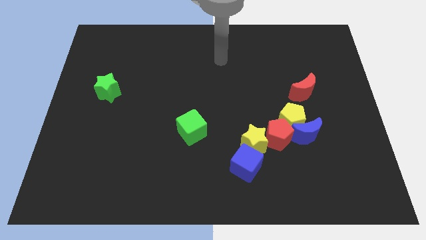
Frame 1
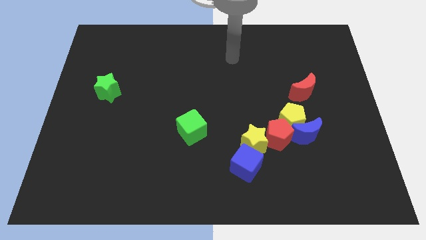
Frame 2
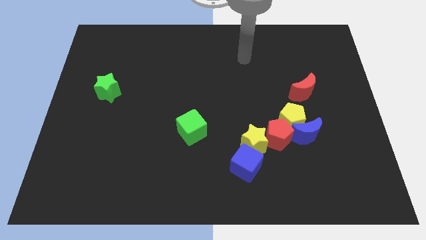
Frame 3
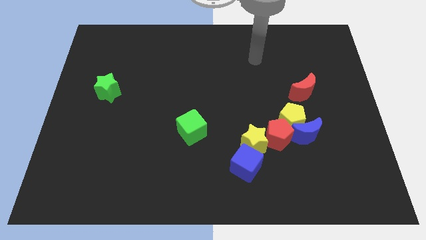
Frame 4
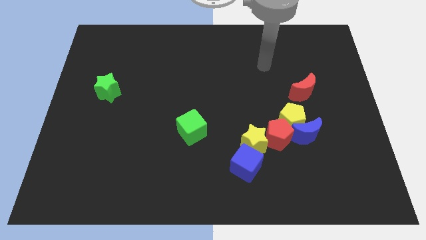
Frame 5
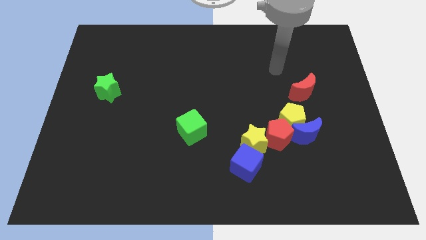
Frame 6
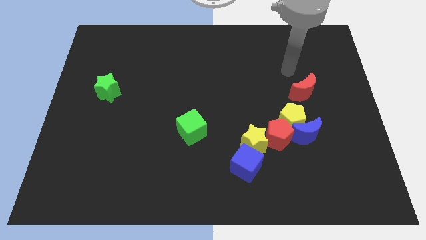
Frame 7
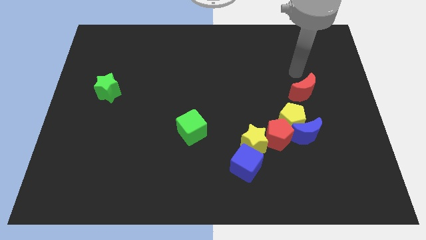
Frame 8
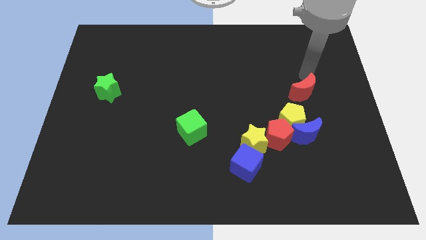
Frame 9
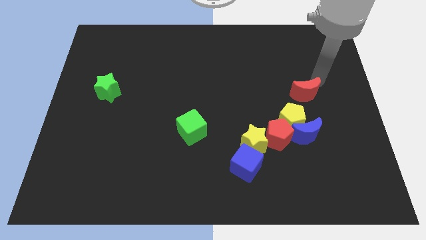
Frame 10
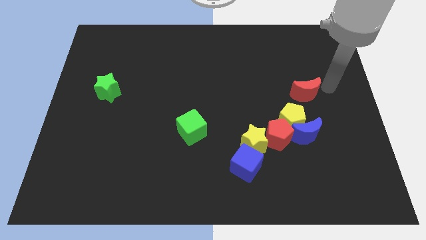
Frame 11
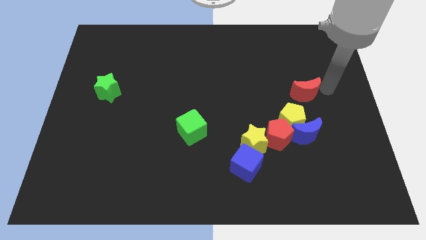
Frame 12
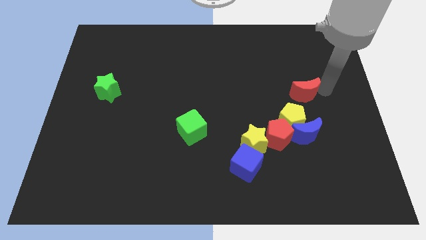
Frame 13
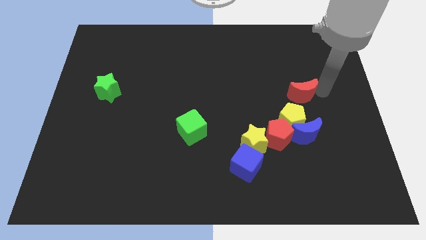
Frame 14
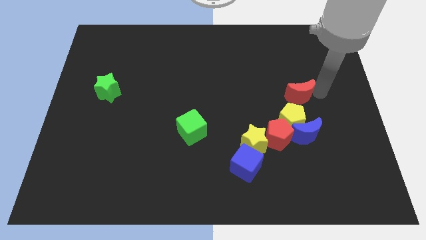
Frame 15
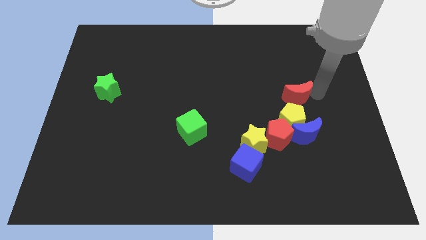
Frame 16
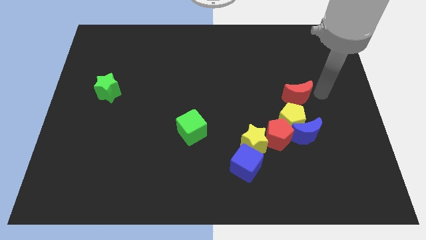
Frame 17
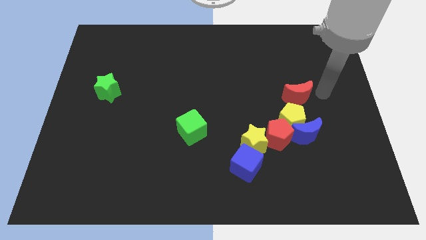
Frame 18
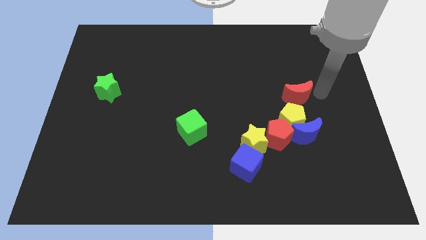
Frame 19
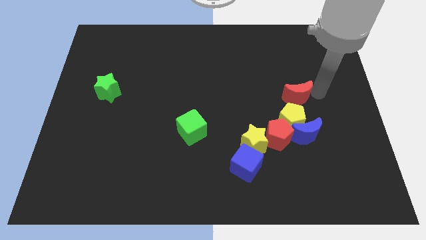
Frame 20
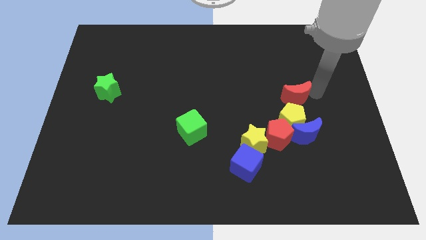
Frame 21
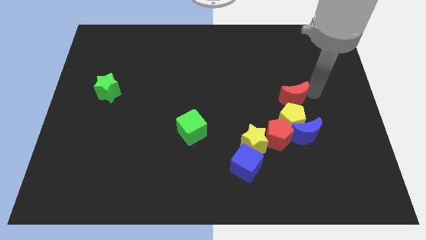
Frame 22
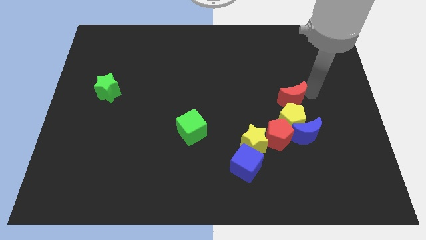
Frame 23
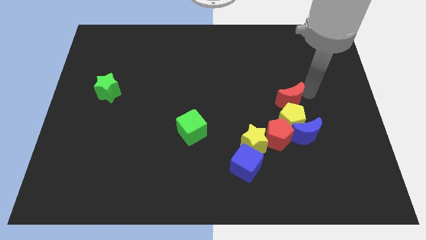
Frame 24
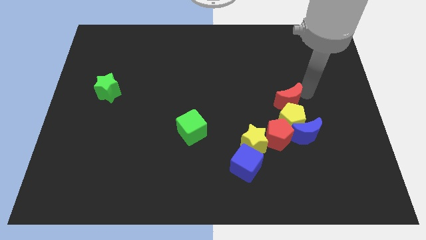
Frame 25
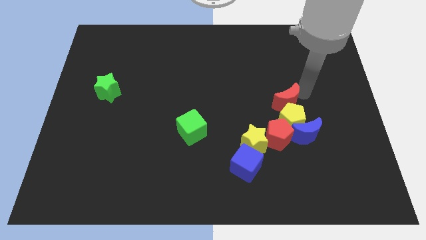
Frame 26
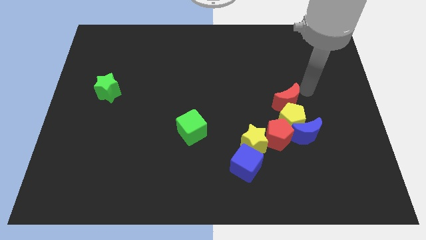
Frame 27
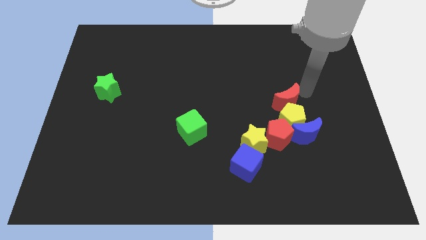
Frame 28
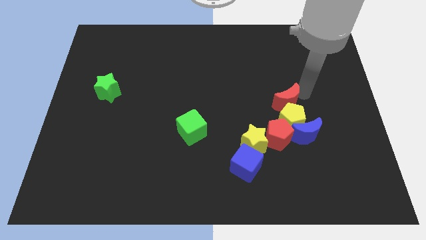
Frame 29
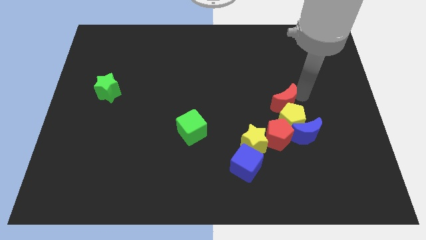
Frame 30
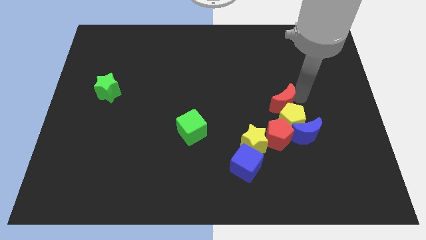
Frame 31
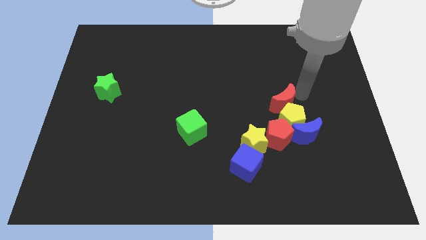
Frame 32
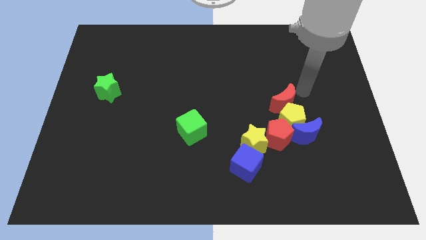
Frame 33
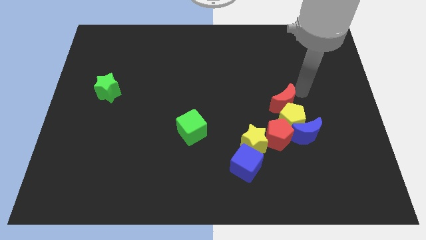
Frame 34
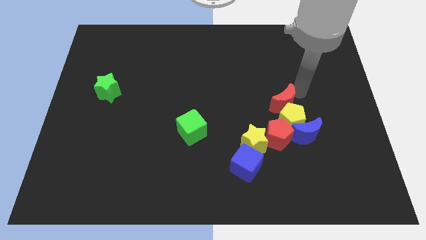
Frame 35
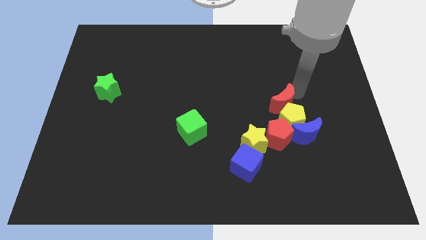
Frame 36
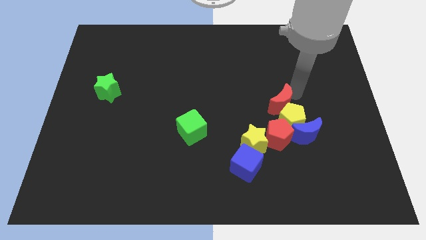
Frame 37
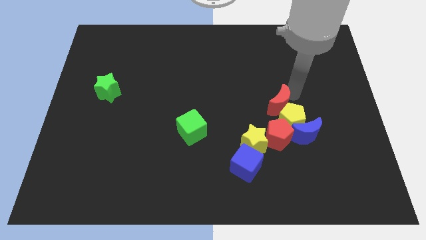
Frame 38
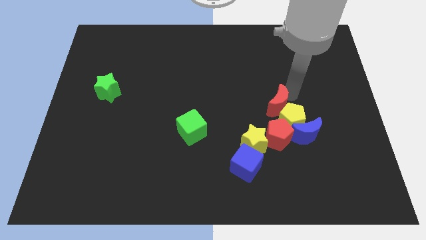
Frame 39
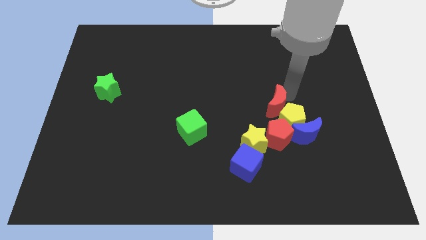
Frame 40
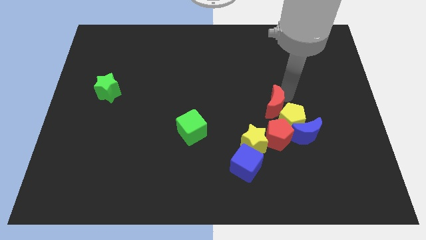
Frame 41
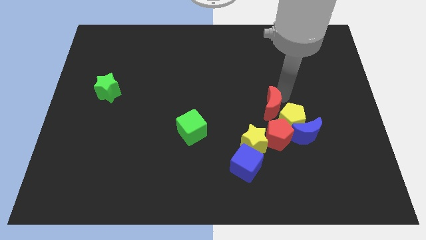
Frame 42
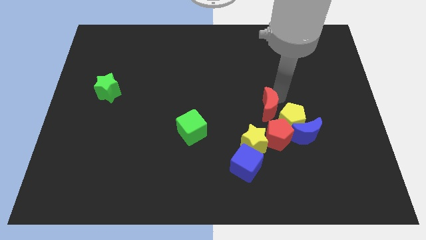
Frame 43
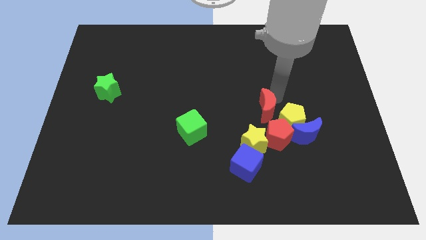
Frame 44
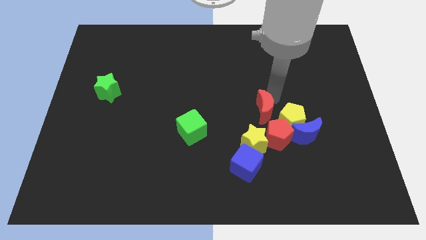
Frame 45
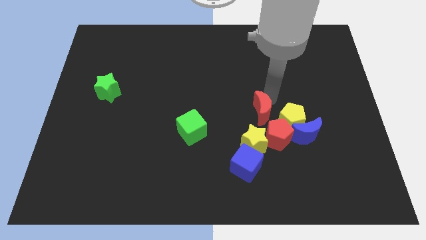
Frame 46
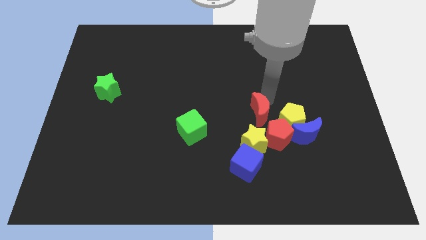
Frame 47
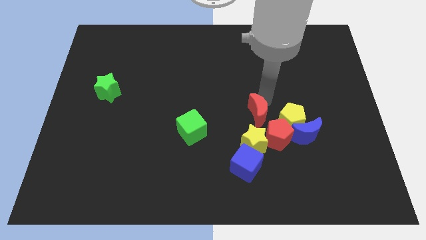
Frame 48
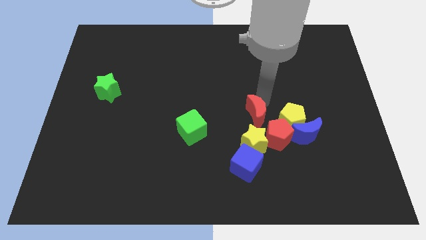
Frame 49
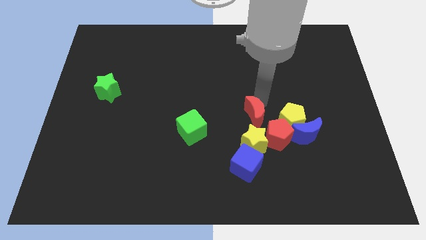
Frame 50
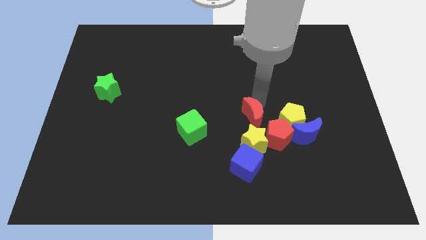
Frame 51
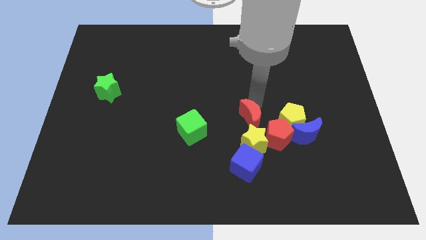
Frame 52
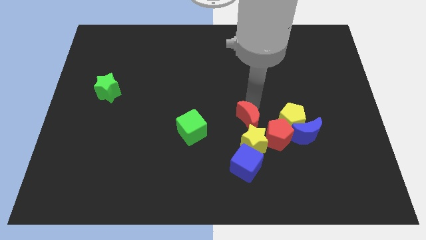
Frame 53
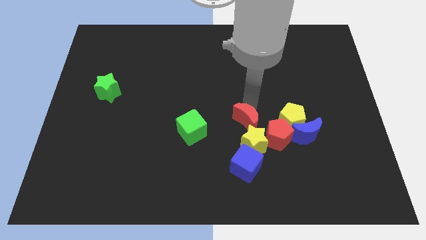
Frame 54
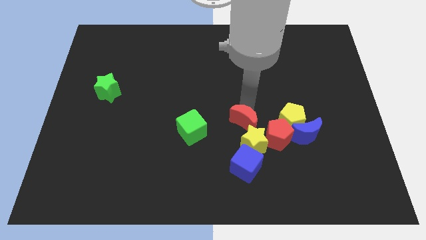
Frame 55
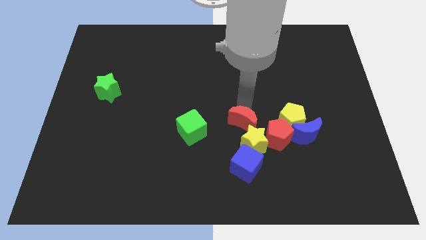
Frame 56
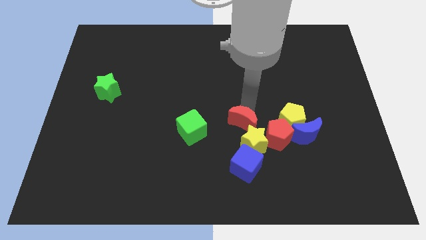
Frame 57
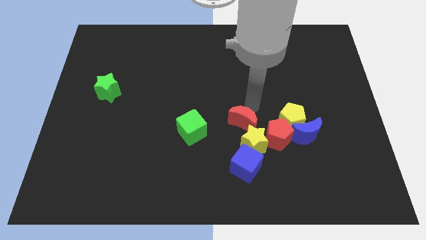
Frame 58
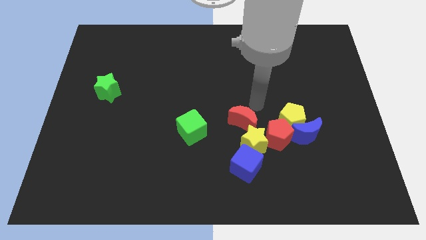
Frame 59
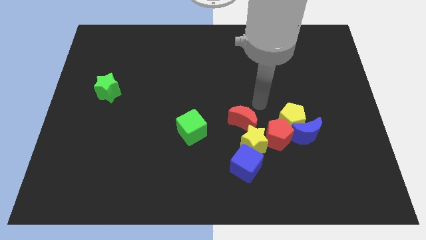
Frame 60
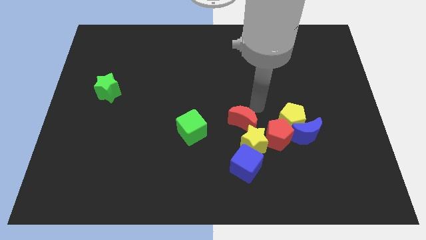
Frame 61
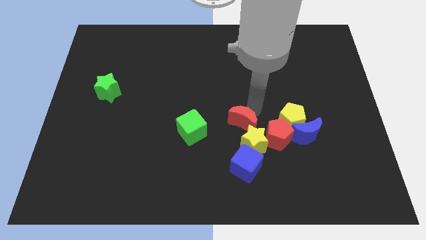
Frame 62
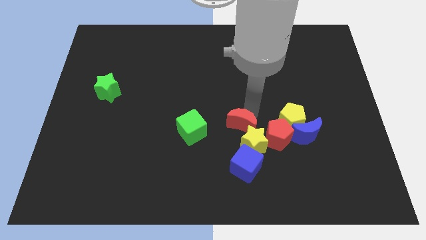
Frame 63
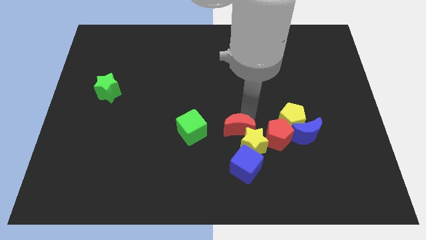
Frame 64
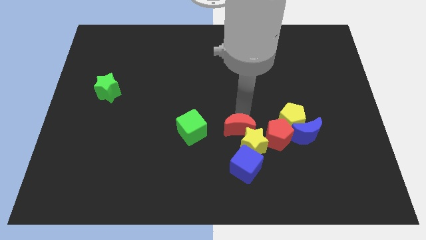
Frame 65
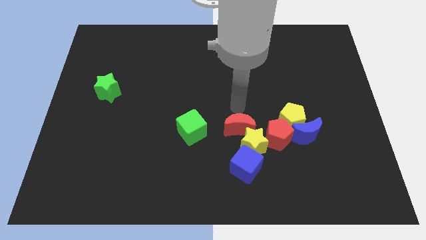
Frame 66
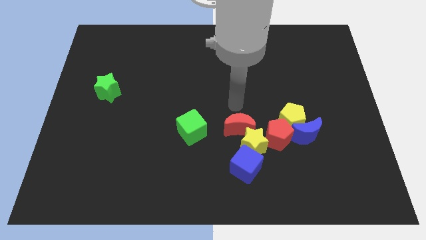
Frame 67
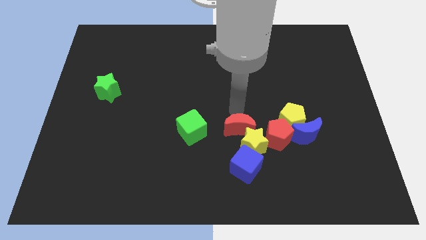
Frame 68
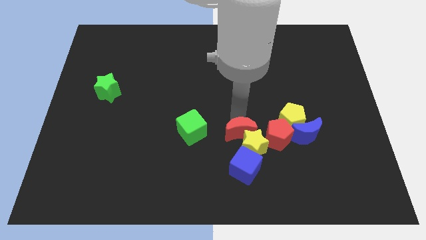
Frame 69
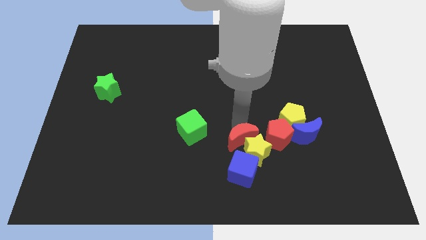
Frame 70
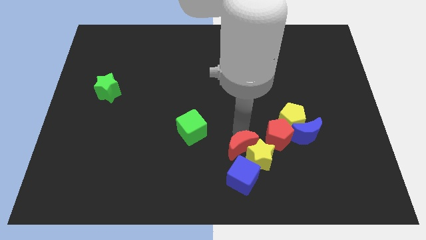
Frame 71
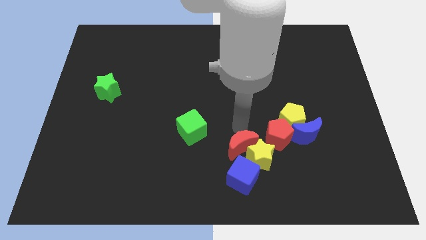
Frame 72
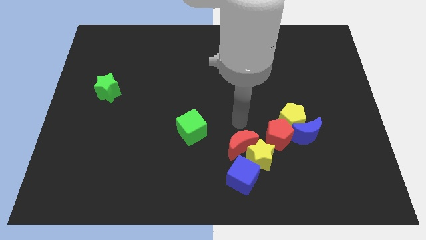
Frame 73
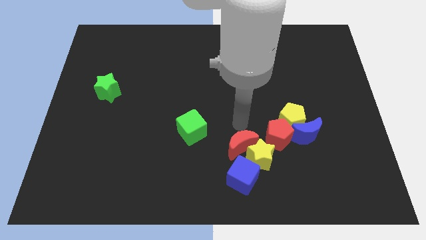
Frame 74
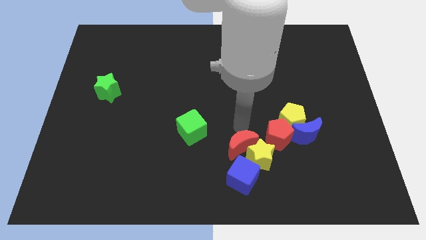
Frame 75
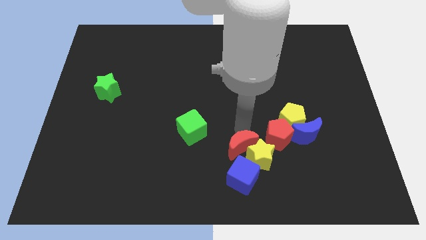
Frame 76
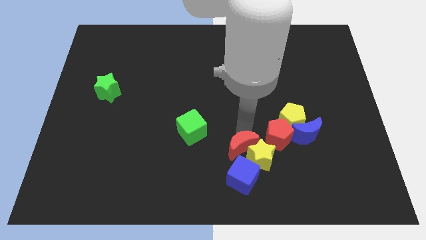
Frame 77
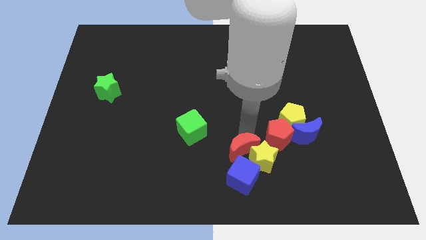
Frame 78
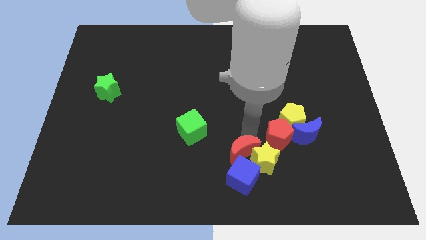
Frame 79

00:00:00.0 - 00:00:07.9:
move the red moon next to the blue cube
